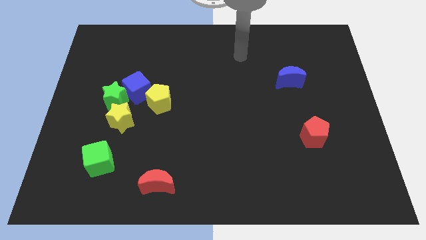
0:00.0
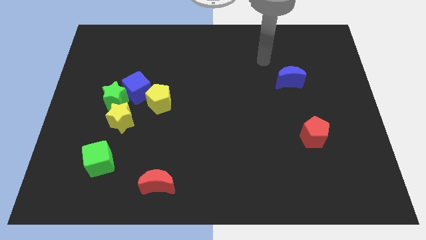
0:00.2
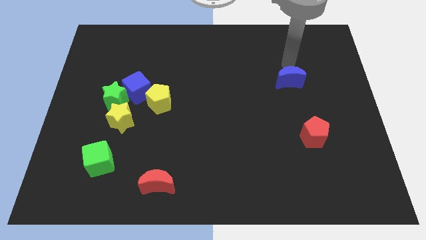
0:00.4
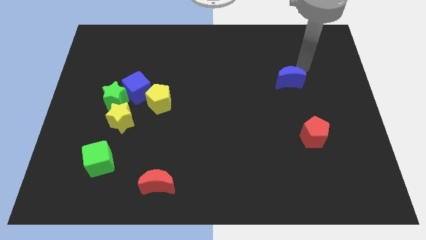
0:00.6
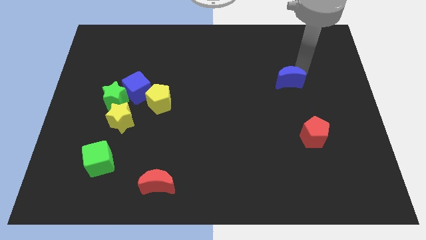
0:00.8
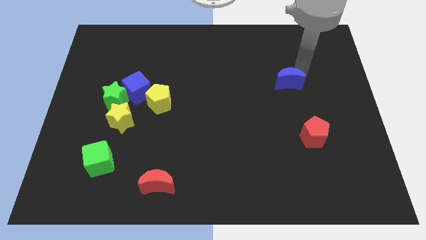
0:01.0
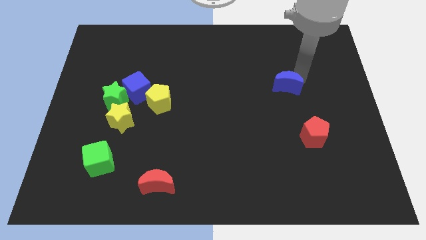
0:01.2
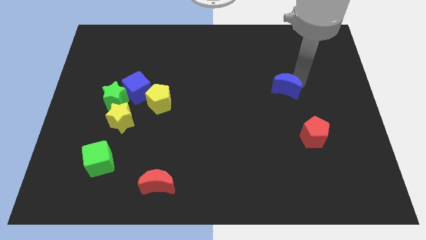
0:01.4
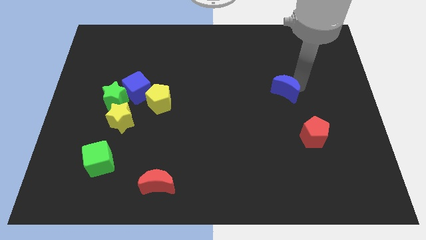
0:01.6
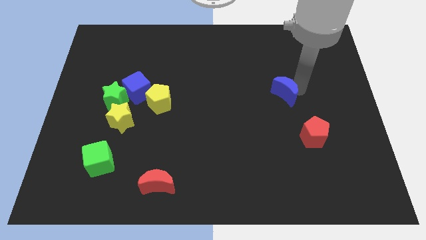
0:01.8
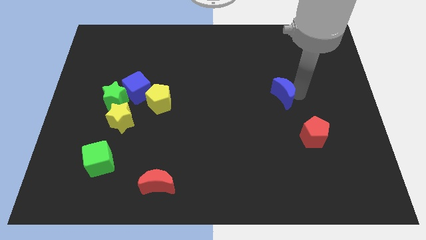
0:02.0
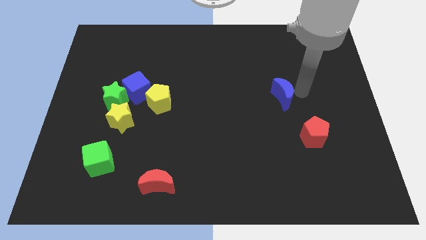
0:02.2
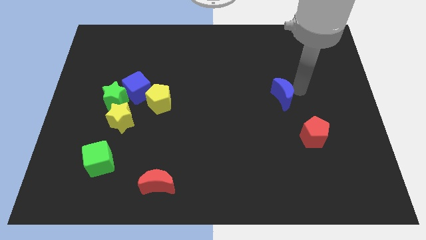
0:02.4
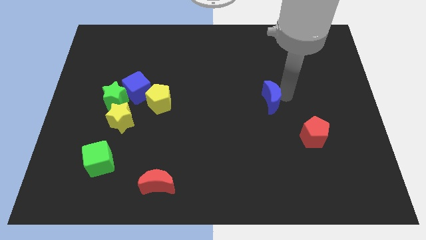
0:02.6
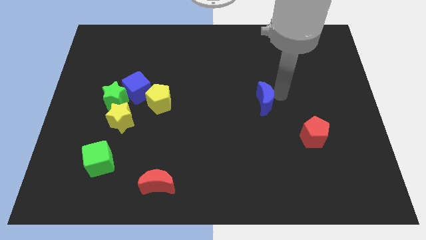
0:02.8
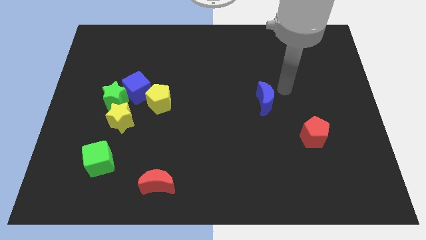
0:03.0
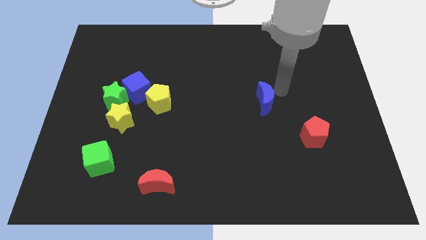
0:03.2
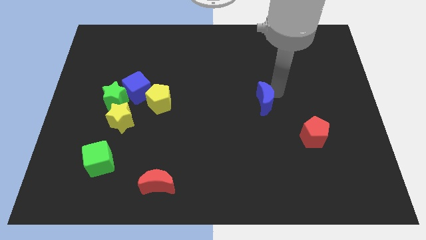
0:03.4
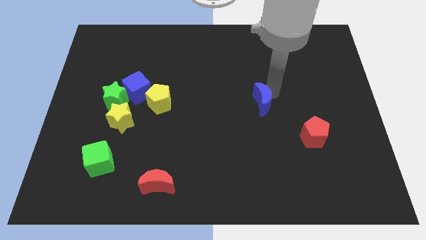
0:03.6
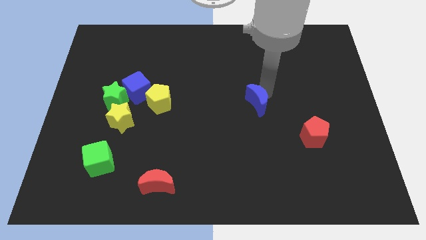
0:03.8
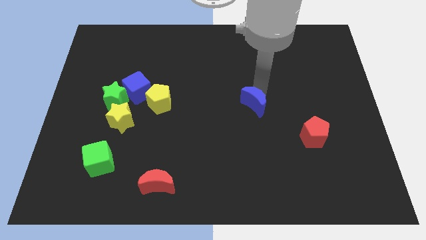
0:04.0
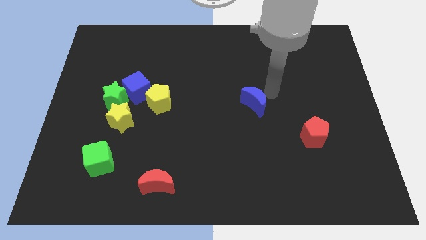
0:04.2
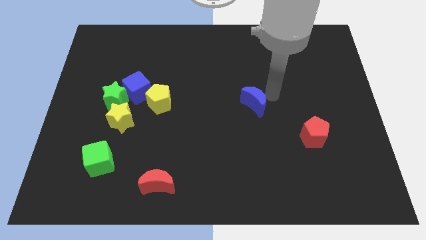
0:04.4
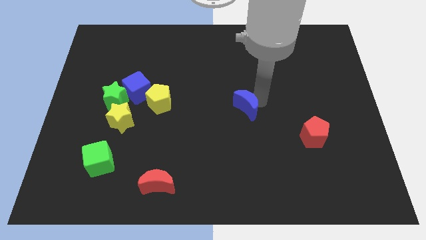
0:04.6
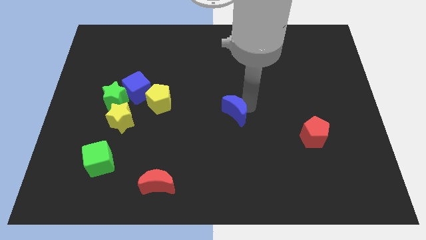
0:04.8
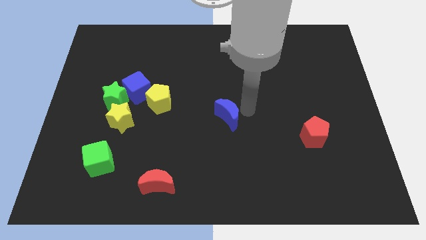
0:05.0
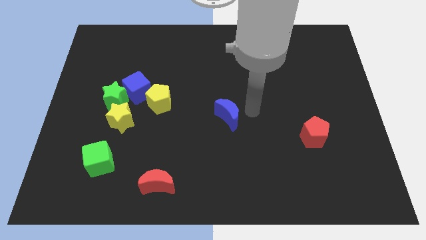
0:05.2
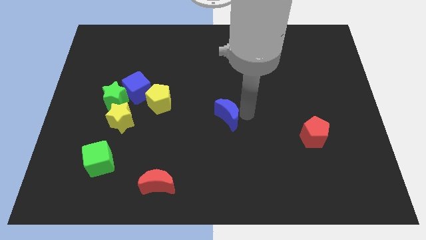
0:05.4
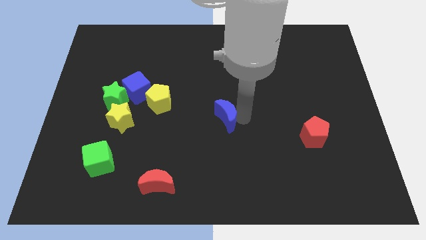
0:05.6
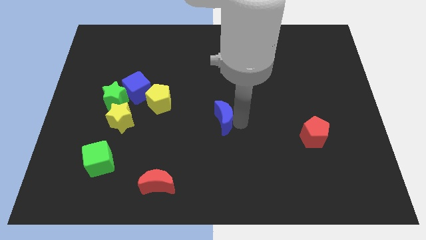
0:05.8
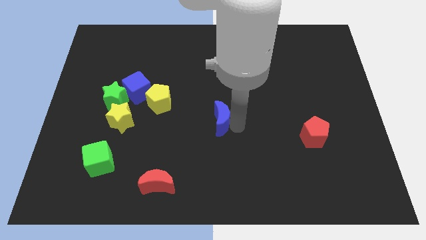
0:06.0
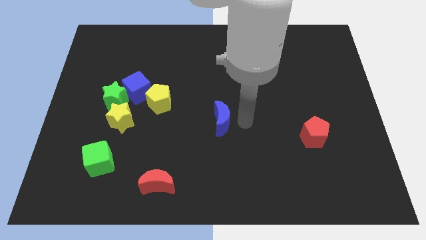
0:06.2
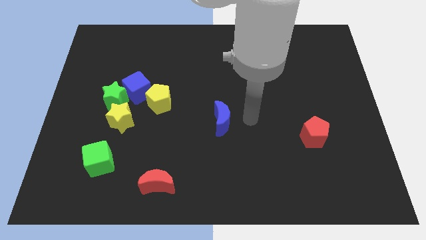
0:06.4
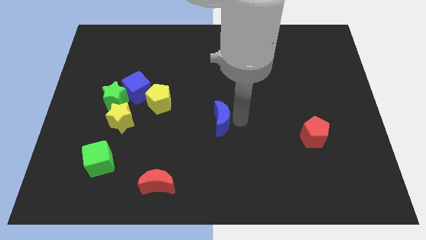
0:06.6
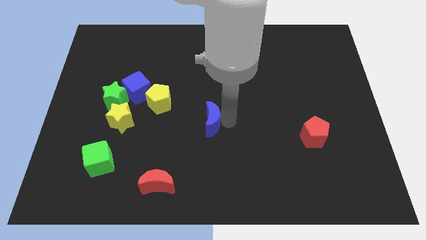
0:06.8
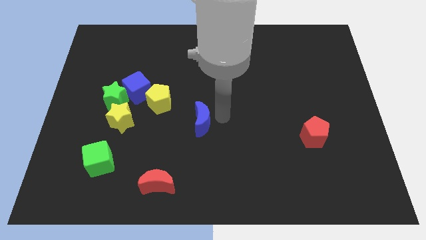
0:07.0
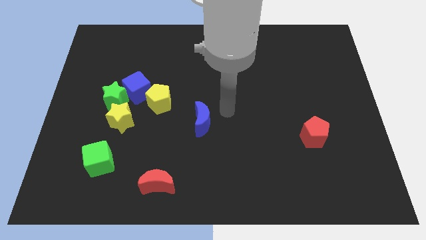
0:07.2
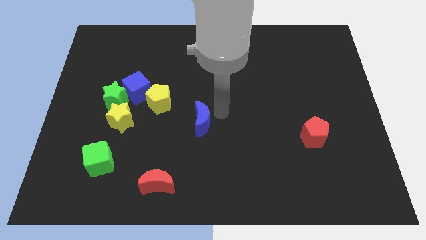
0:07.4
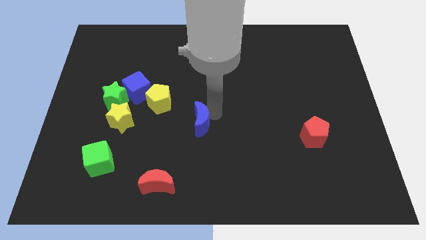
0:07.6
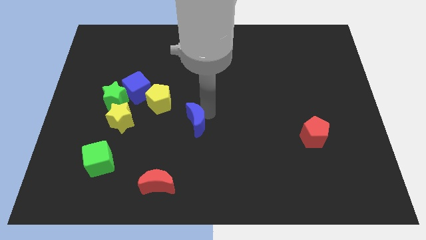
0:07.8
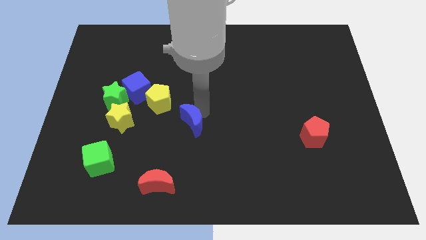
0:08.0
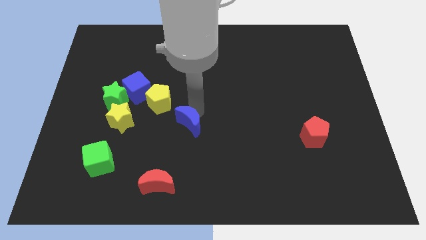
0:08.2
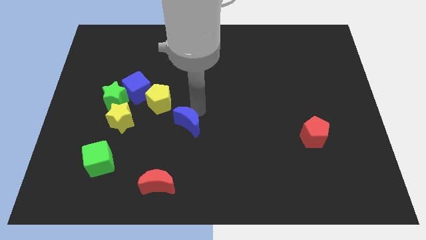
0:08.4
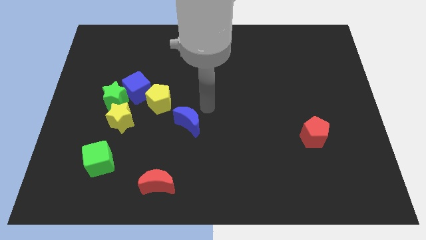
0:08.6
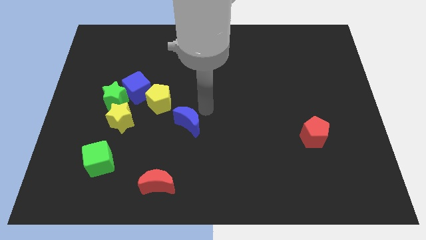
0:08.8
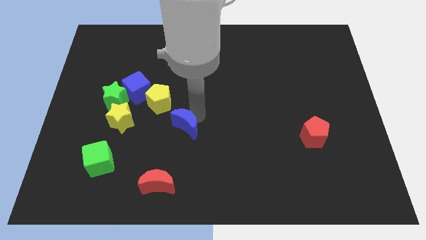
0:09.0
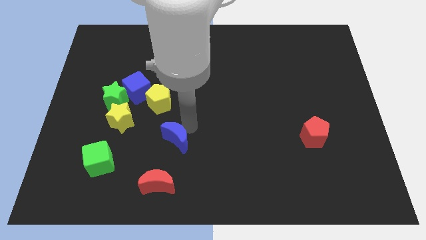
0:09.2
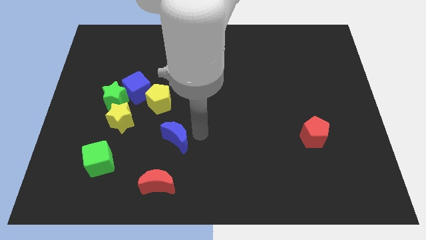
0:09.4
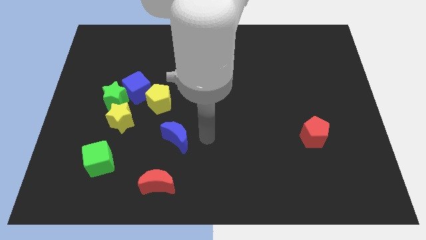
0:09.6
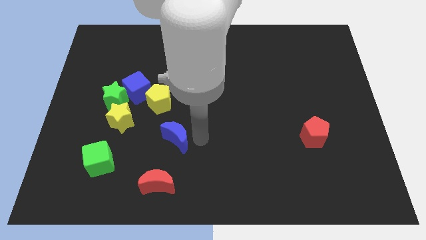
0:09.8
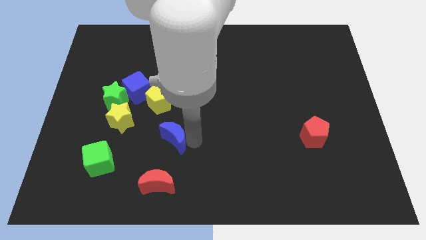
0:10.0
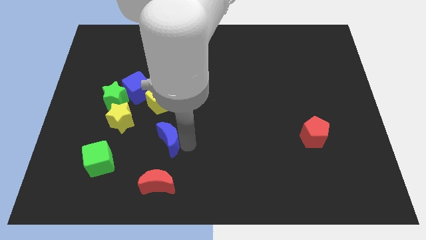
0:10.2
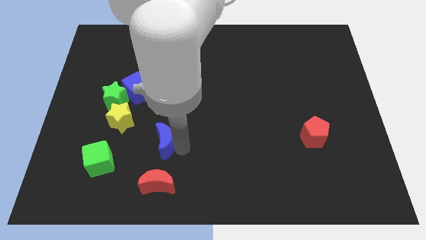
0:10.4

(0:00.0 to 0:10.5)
slide the blue moon to the bottom right of the yellow star
